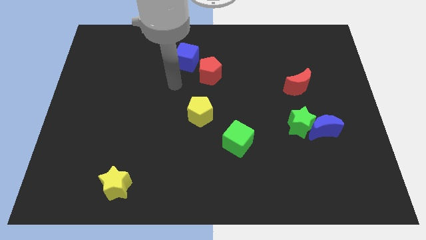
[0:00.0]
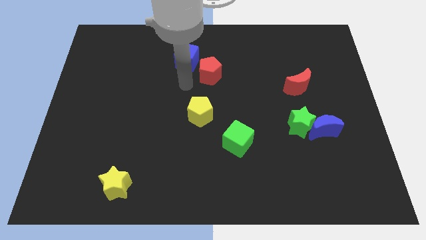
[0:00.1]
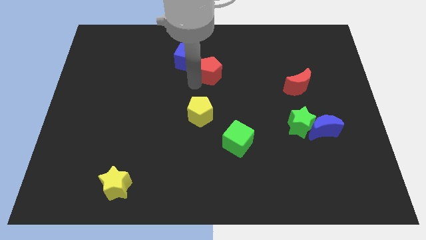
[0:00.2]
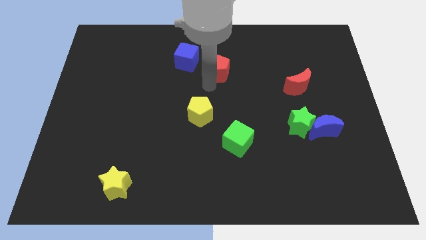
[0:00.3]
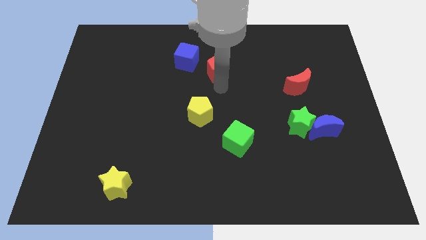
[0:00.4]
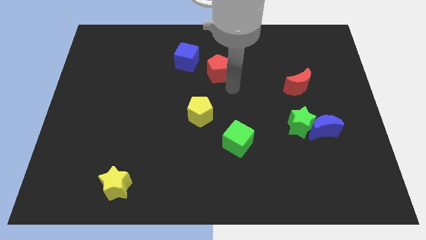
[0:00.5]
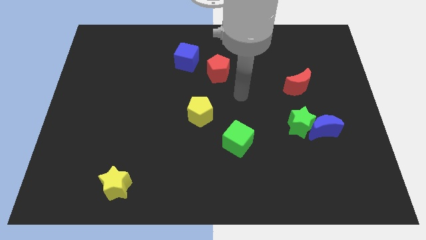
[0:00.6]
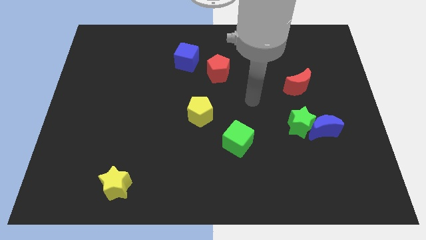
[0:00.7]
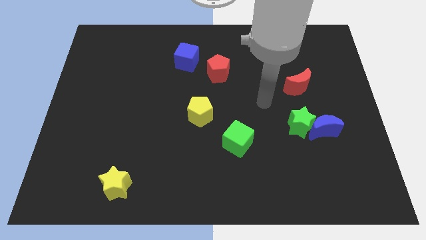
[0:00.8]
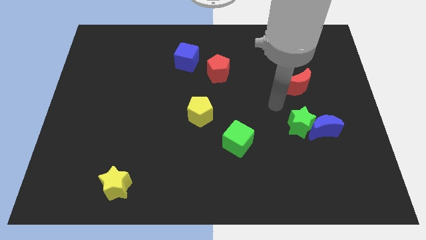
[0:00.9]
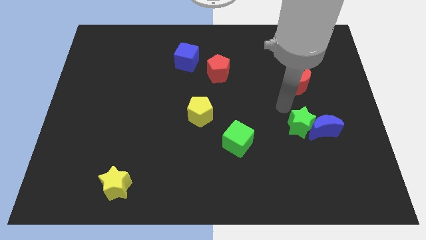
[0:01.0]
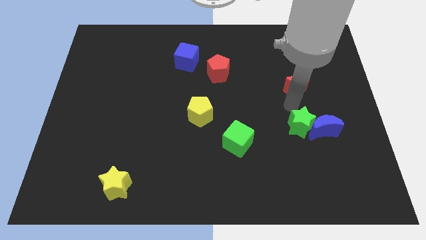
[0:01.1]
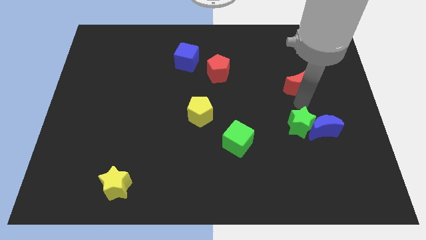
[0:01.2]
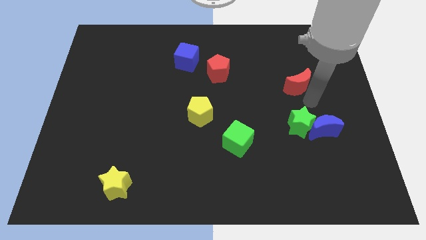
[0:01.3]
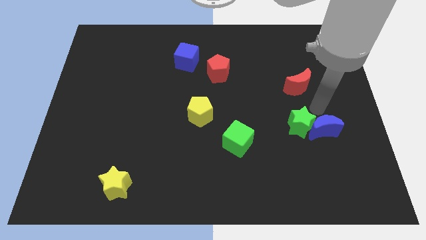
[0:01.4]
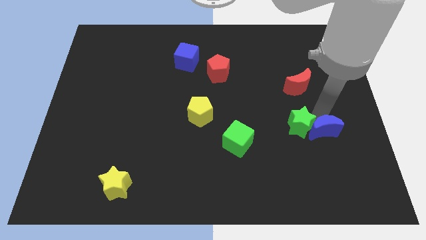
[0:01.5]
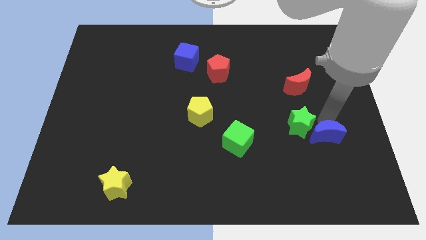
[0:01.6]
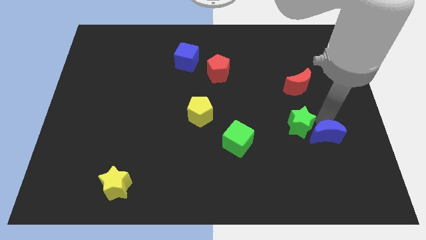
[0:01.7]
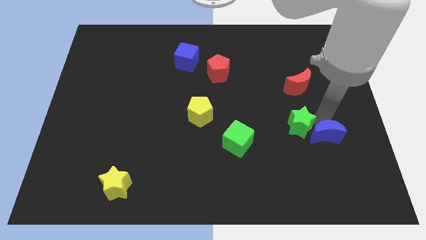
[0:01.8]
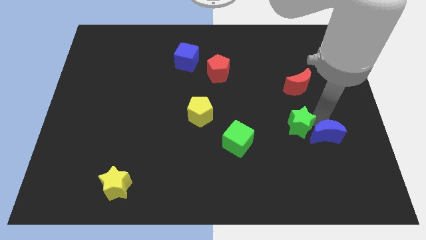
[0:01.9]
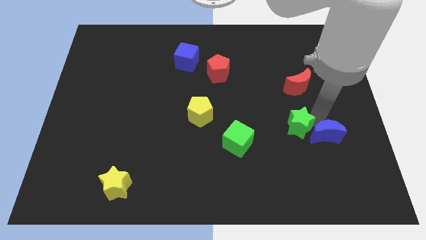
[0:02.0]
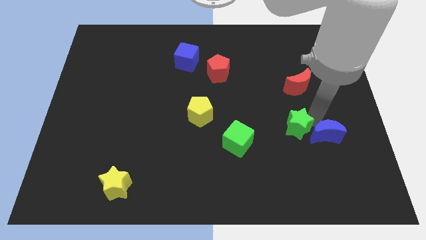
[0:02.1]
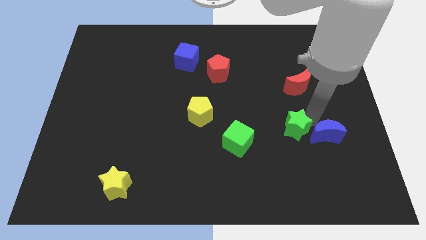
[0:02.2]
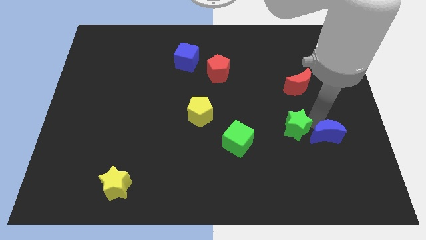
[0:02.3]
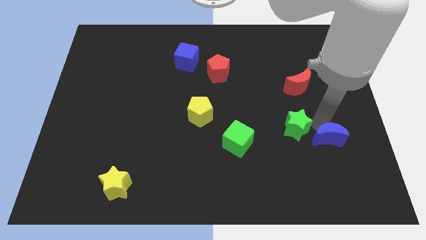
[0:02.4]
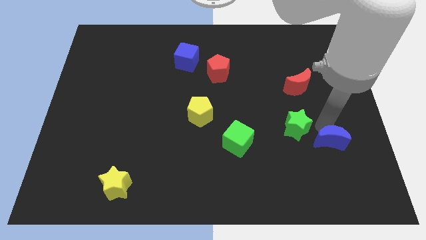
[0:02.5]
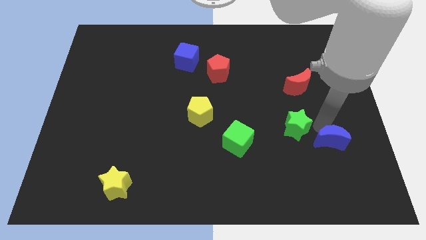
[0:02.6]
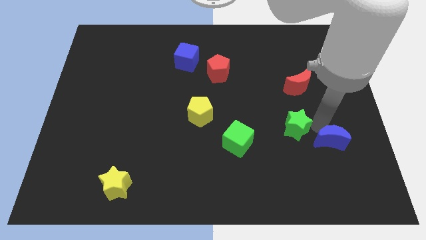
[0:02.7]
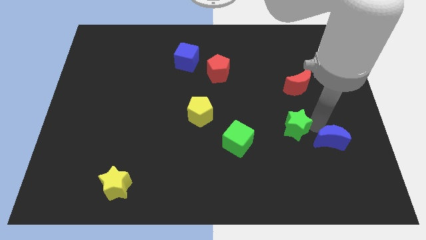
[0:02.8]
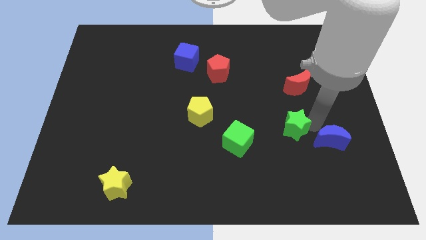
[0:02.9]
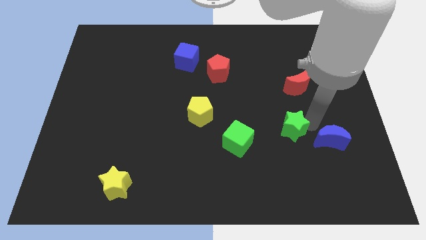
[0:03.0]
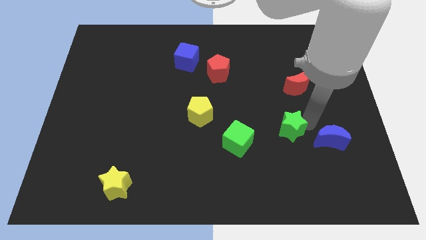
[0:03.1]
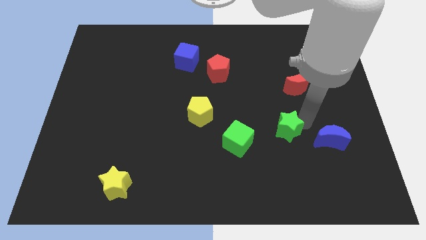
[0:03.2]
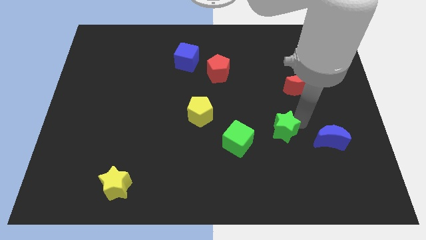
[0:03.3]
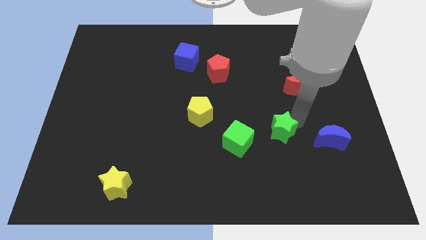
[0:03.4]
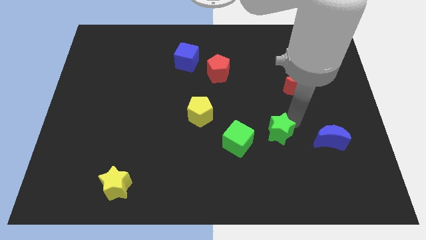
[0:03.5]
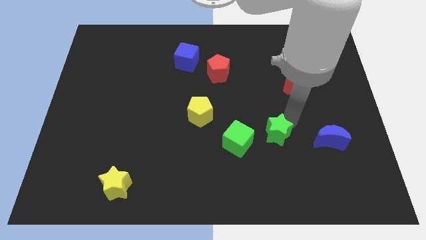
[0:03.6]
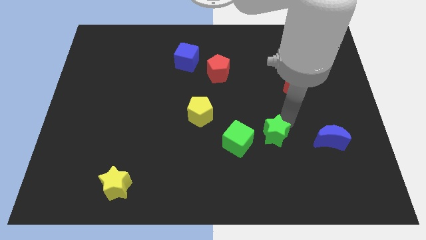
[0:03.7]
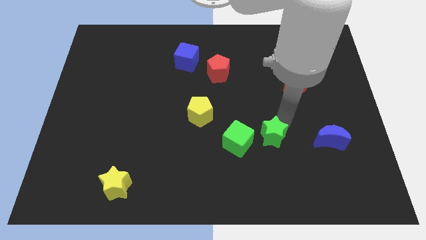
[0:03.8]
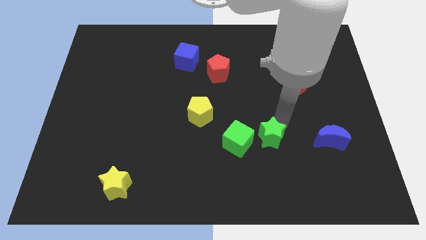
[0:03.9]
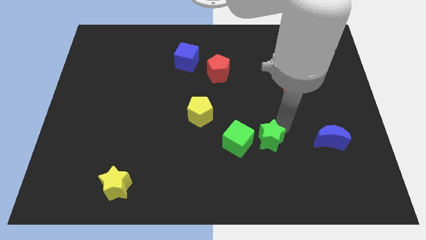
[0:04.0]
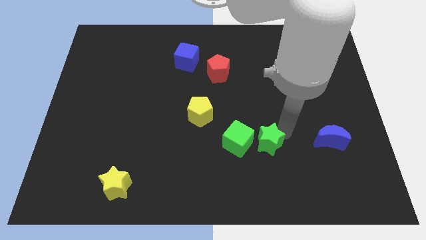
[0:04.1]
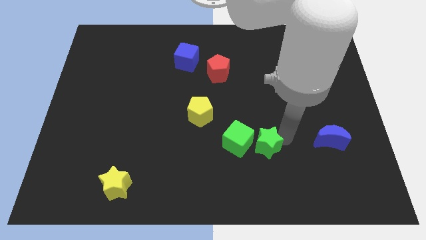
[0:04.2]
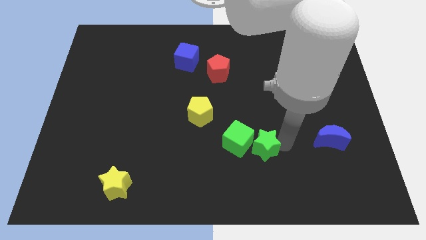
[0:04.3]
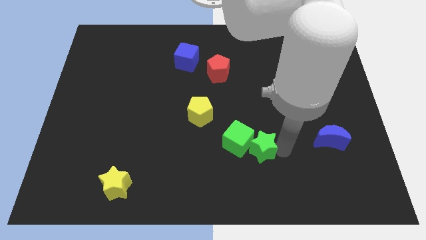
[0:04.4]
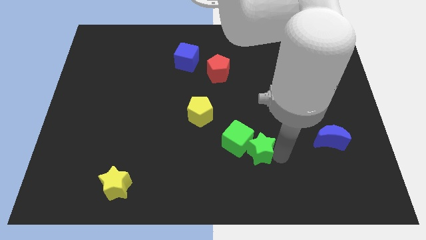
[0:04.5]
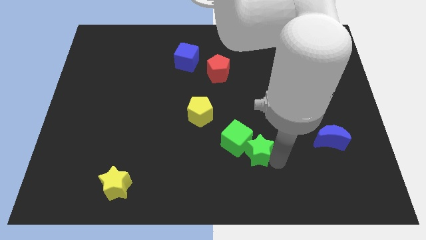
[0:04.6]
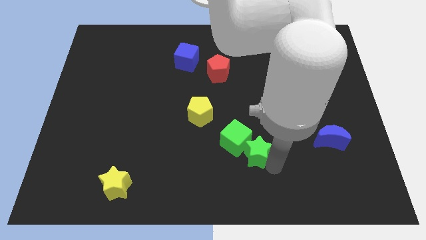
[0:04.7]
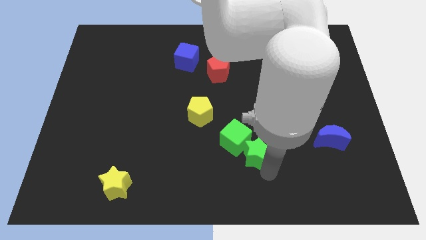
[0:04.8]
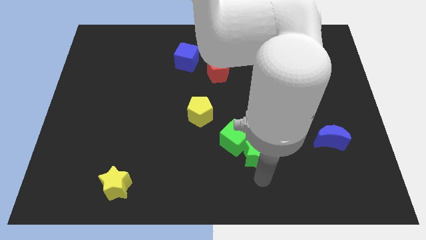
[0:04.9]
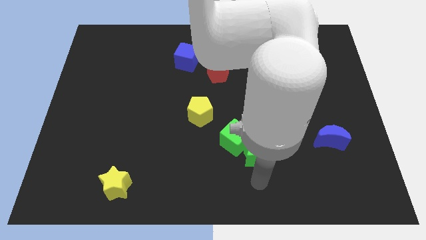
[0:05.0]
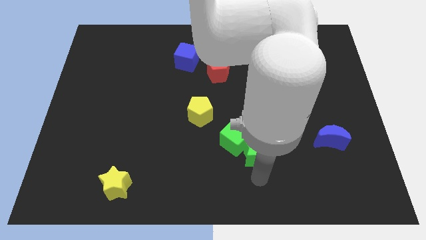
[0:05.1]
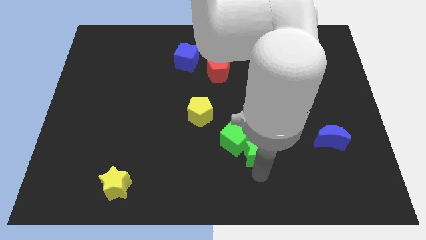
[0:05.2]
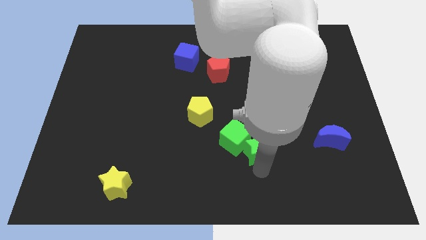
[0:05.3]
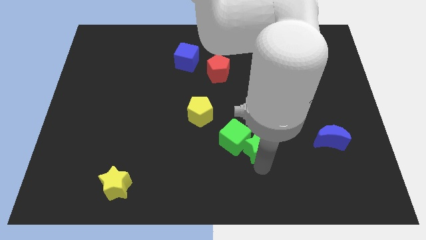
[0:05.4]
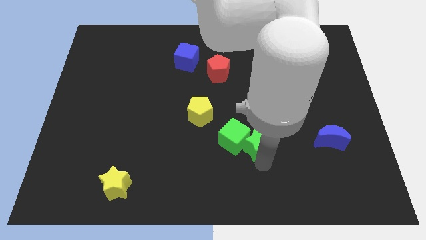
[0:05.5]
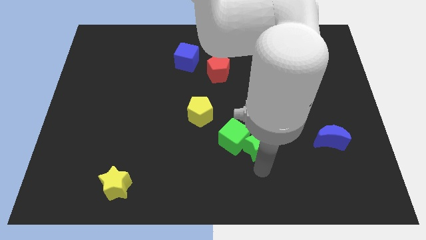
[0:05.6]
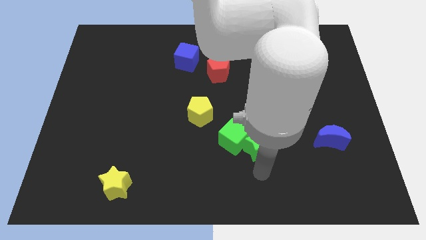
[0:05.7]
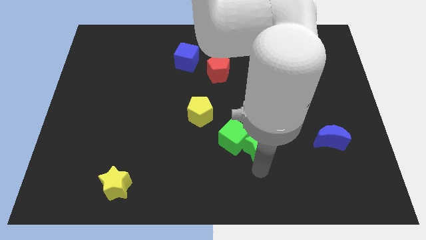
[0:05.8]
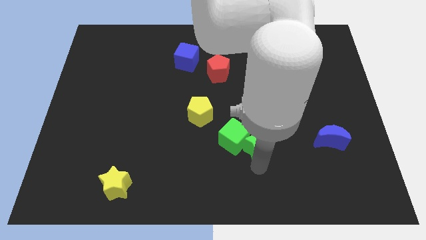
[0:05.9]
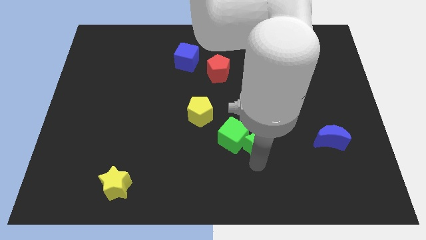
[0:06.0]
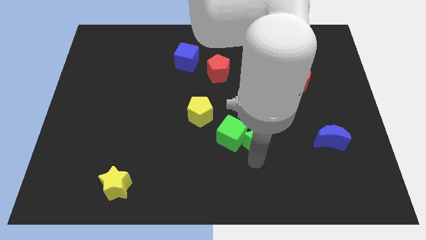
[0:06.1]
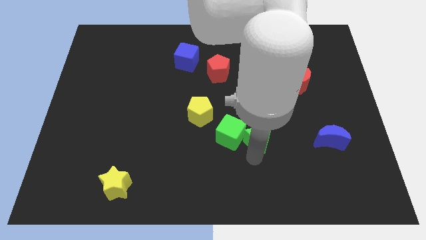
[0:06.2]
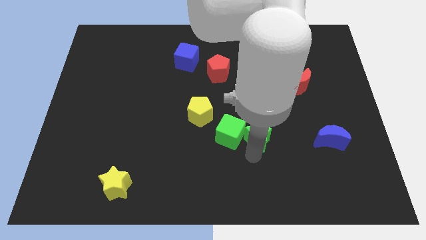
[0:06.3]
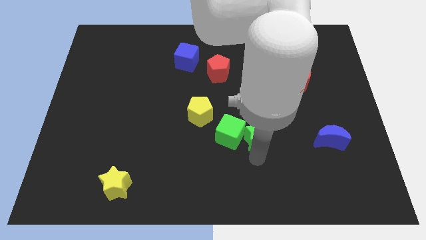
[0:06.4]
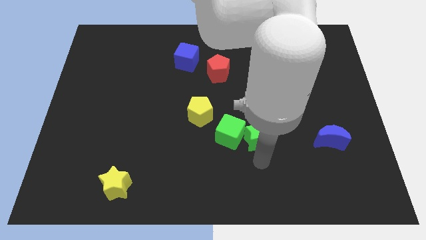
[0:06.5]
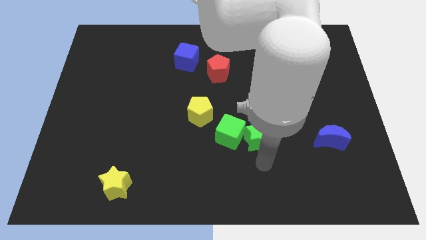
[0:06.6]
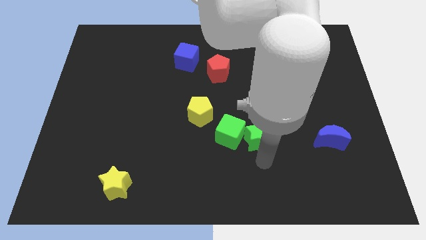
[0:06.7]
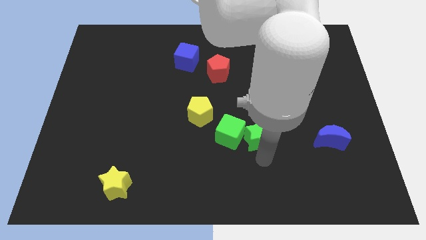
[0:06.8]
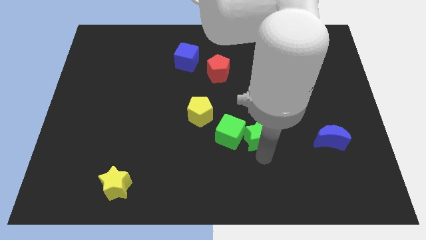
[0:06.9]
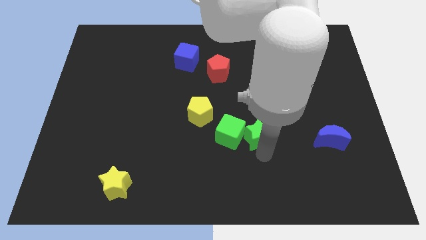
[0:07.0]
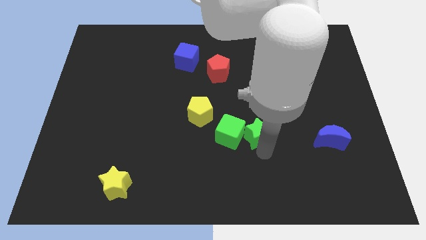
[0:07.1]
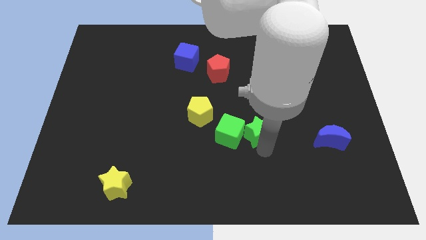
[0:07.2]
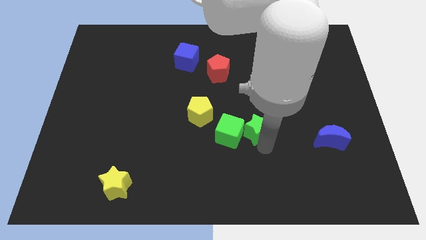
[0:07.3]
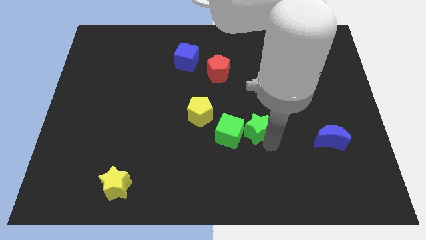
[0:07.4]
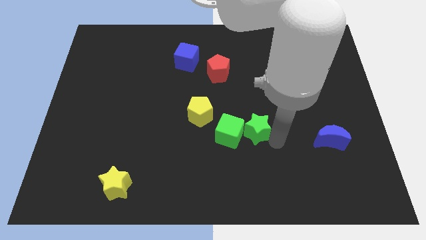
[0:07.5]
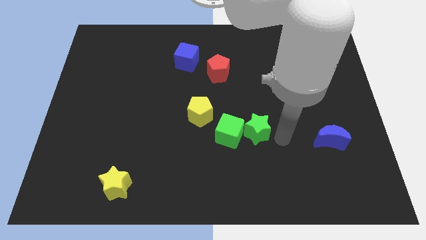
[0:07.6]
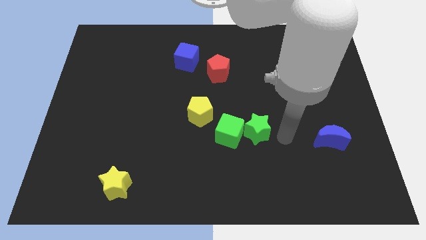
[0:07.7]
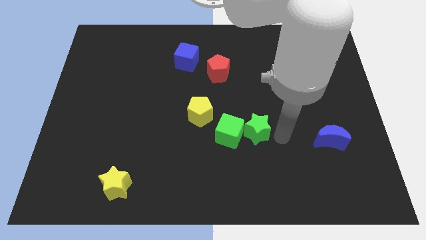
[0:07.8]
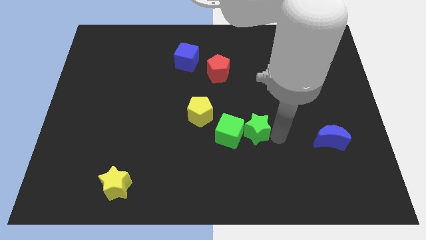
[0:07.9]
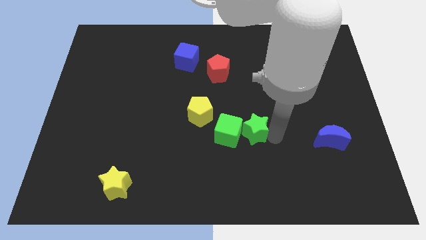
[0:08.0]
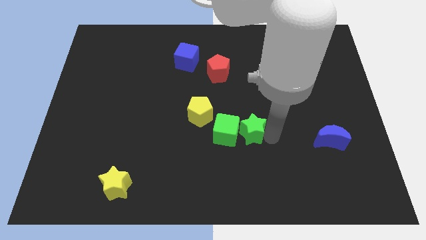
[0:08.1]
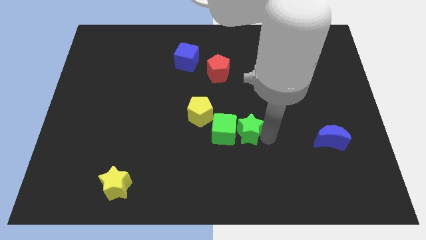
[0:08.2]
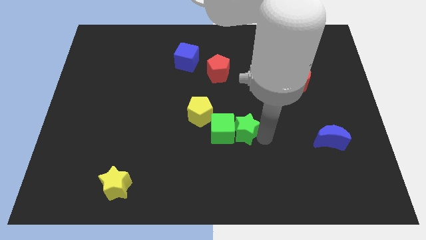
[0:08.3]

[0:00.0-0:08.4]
push the green star to the bottom right side of the yellow pentagon
